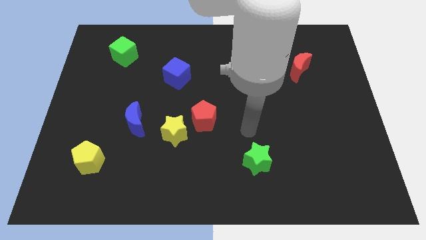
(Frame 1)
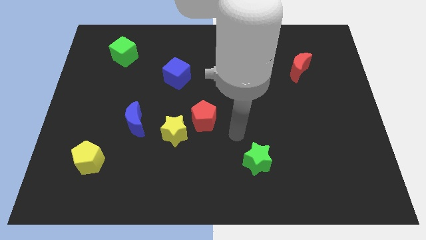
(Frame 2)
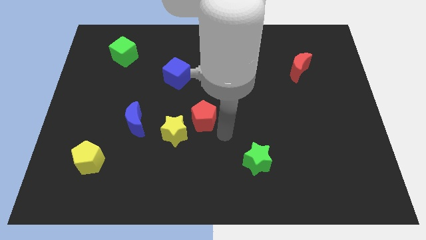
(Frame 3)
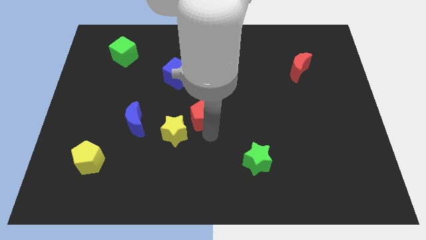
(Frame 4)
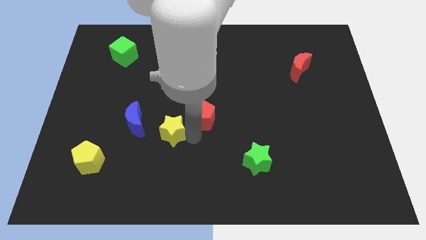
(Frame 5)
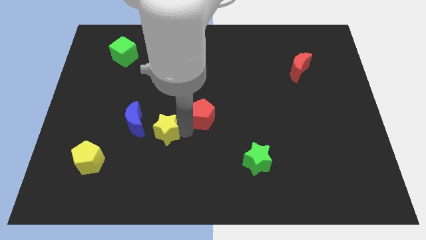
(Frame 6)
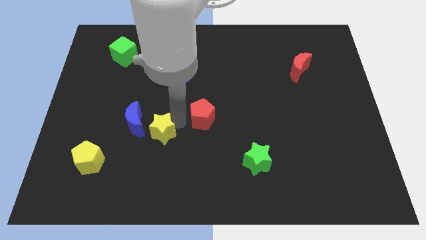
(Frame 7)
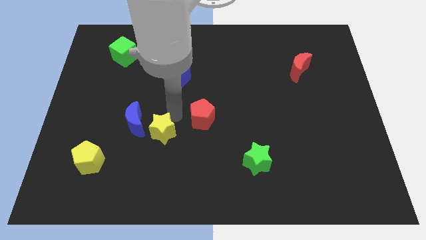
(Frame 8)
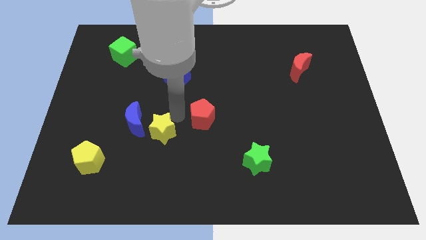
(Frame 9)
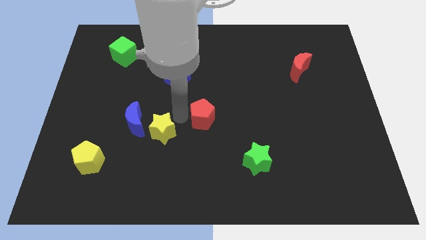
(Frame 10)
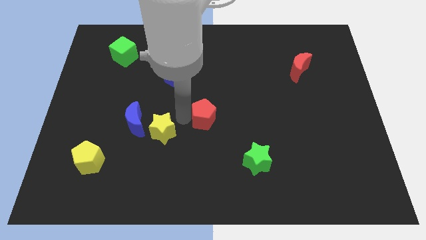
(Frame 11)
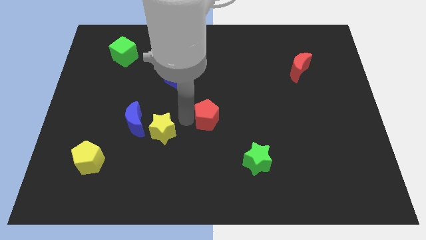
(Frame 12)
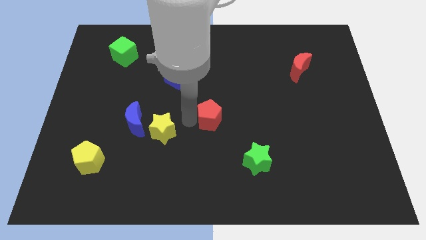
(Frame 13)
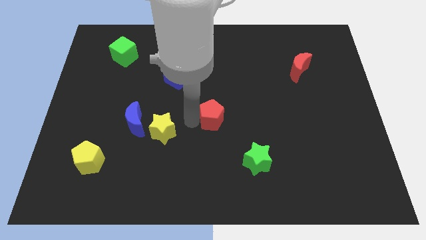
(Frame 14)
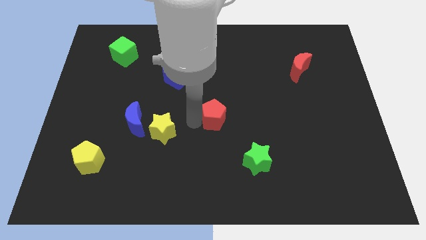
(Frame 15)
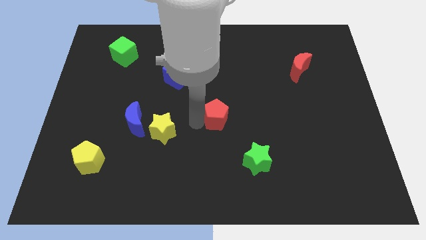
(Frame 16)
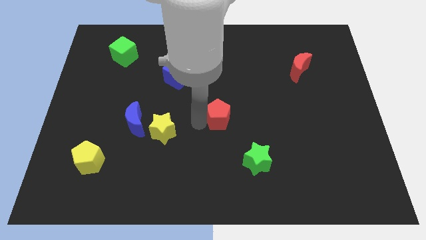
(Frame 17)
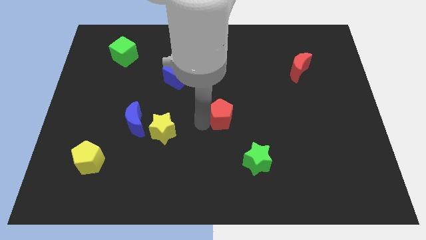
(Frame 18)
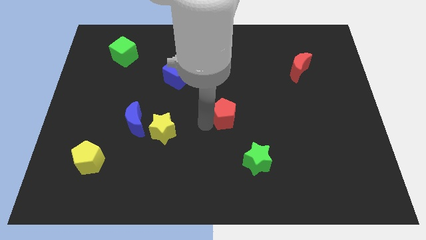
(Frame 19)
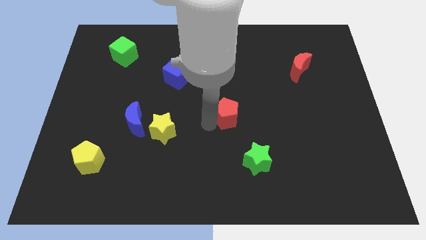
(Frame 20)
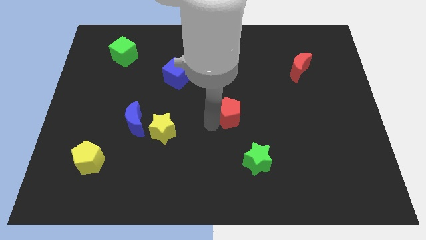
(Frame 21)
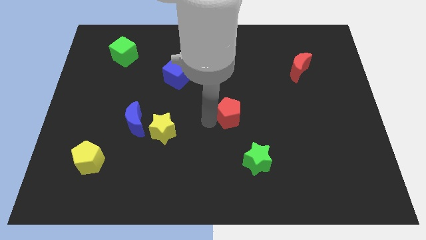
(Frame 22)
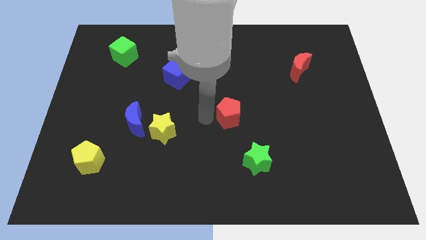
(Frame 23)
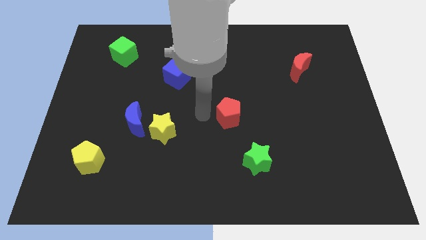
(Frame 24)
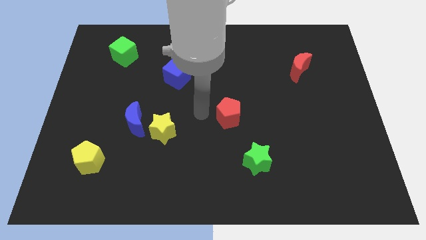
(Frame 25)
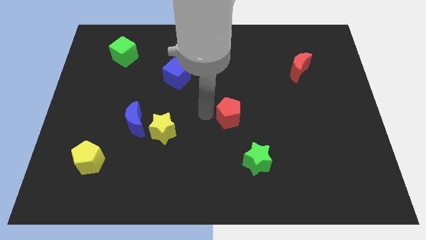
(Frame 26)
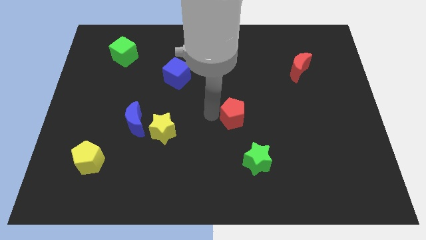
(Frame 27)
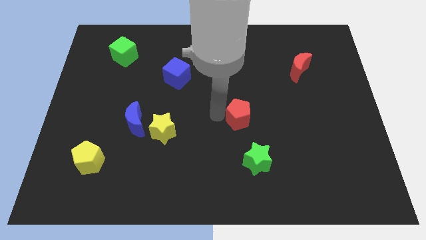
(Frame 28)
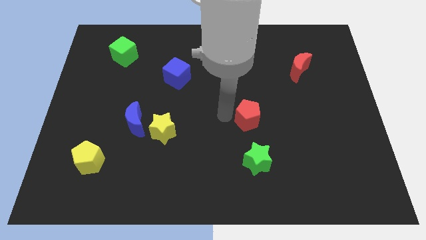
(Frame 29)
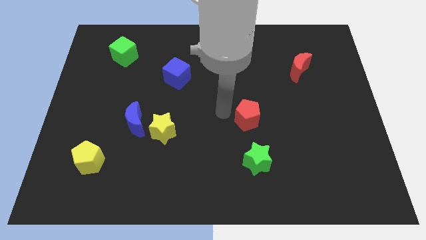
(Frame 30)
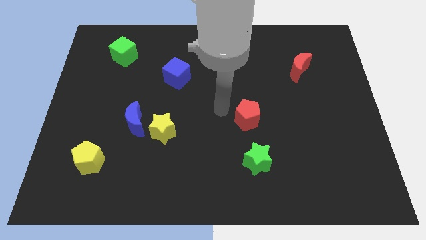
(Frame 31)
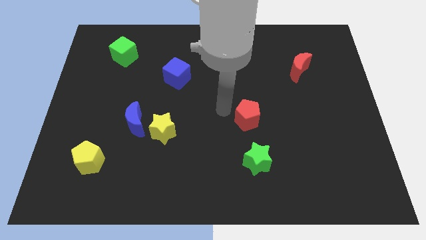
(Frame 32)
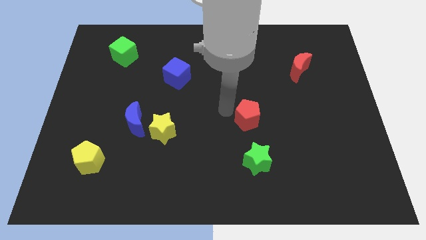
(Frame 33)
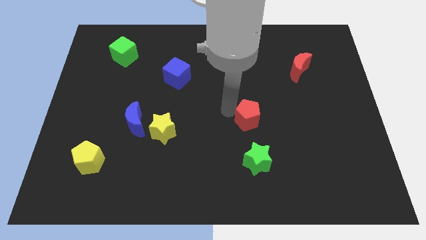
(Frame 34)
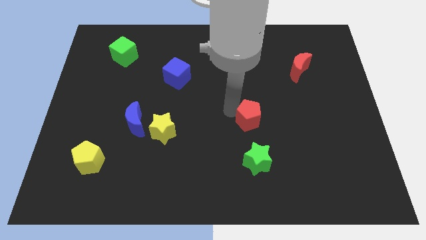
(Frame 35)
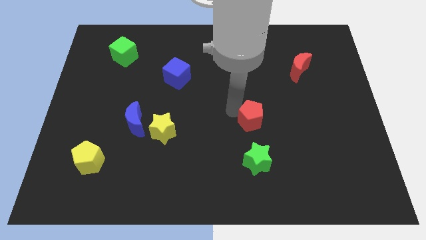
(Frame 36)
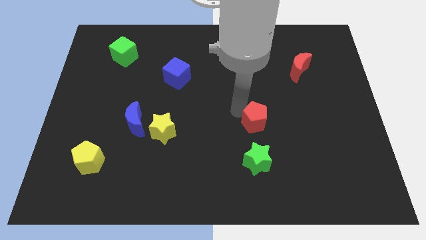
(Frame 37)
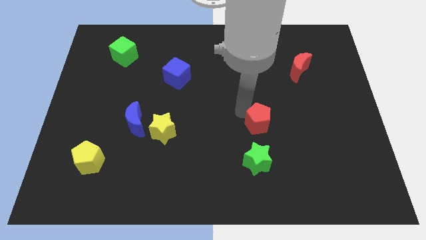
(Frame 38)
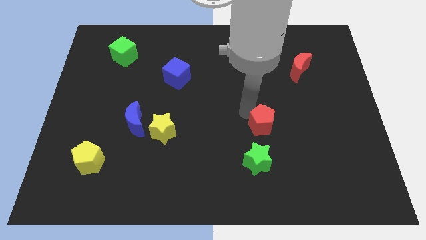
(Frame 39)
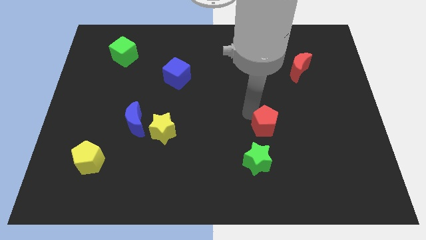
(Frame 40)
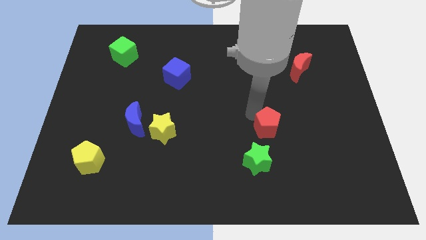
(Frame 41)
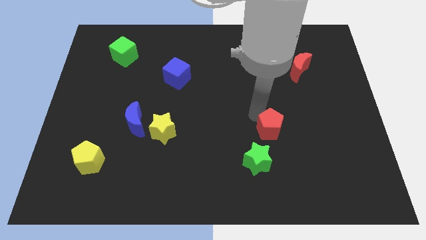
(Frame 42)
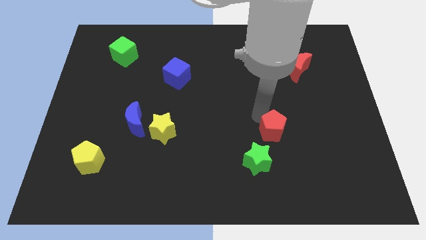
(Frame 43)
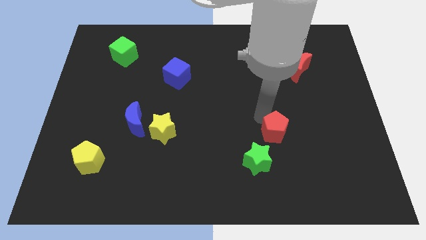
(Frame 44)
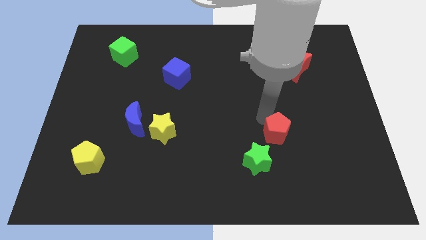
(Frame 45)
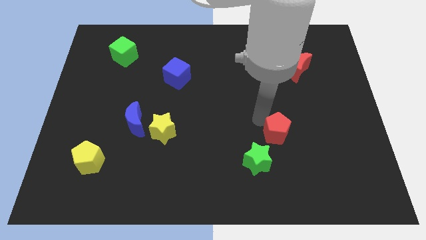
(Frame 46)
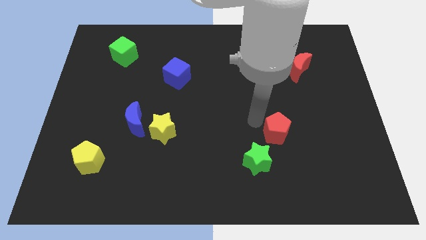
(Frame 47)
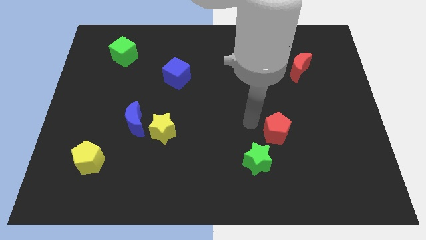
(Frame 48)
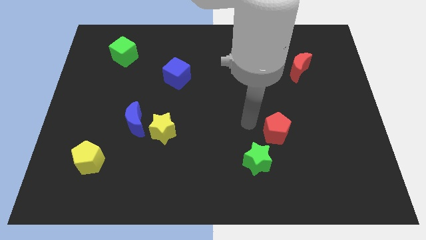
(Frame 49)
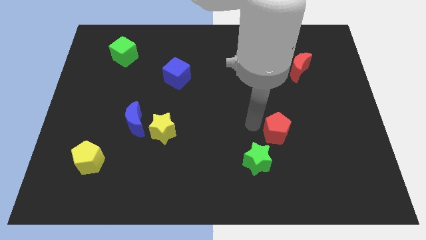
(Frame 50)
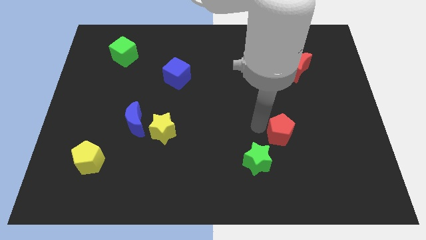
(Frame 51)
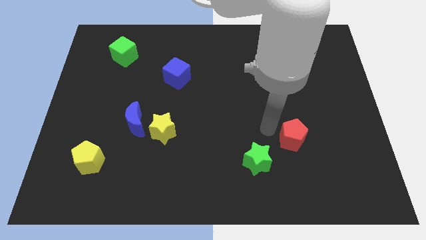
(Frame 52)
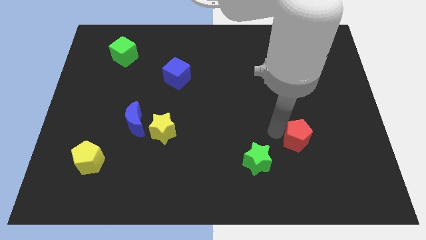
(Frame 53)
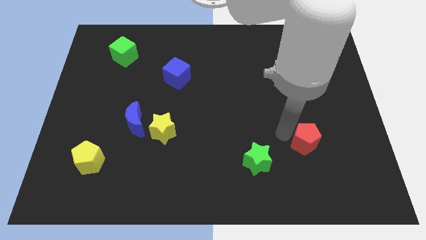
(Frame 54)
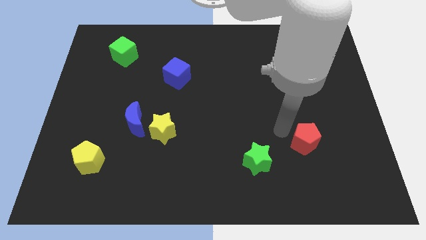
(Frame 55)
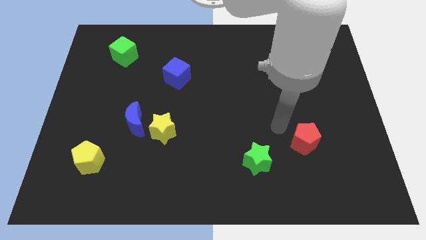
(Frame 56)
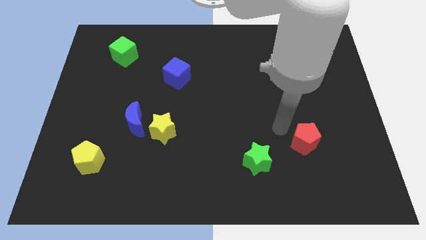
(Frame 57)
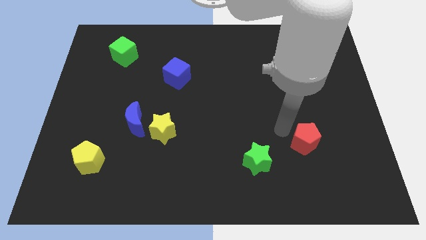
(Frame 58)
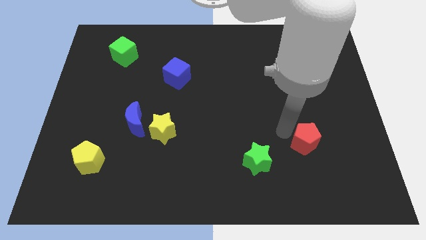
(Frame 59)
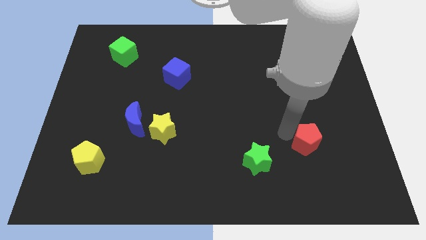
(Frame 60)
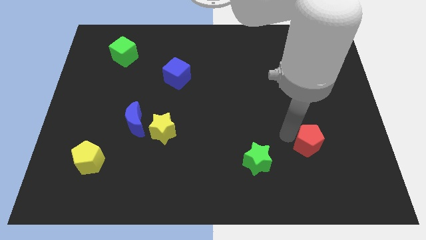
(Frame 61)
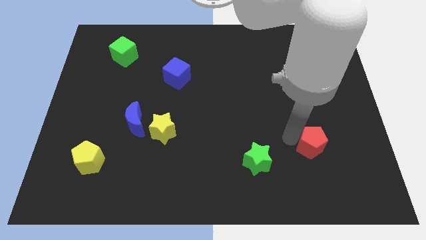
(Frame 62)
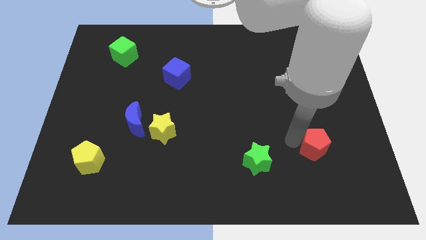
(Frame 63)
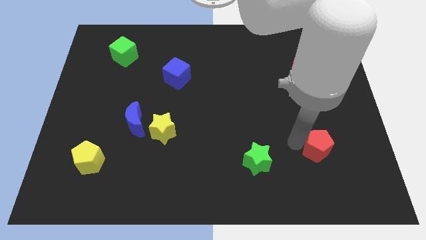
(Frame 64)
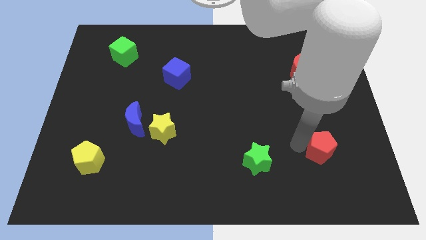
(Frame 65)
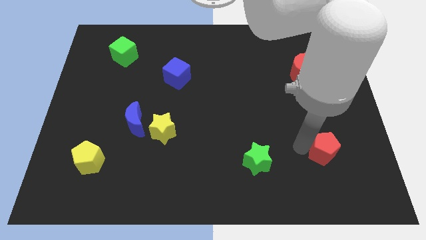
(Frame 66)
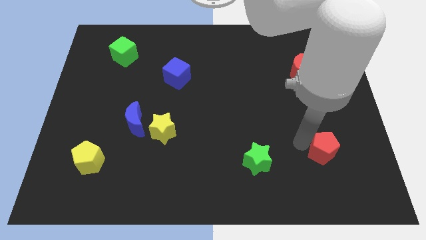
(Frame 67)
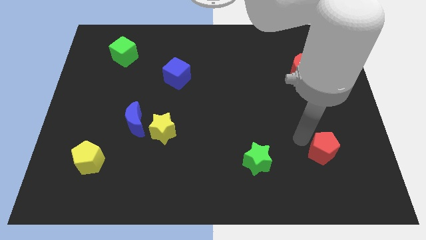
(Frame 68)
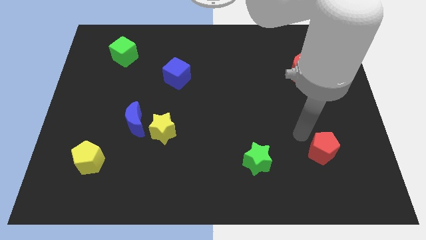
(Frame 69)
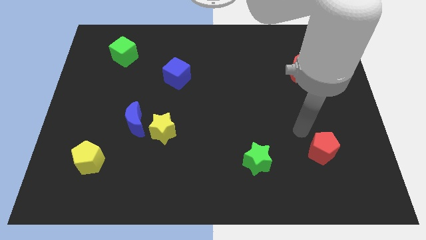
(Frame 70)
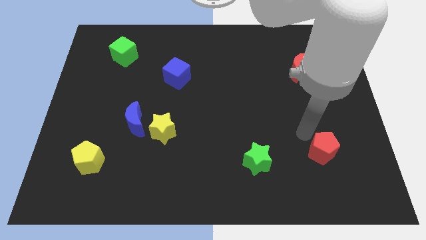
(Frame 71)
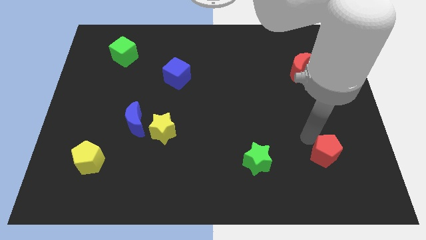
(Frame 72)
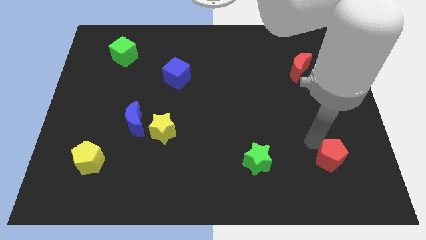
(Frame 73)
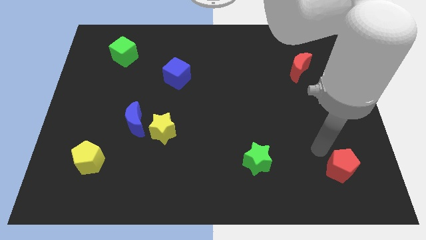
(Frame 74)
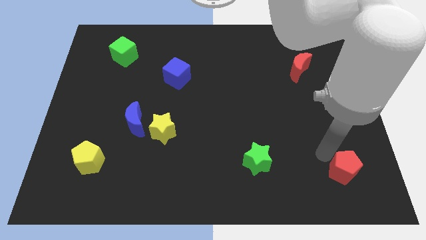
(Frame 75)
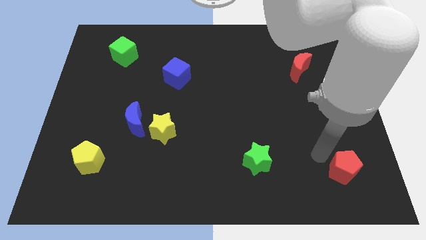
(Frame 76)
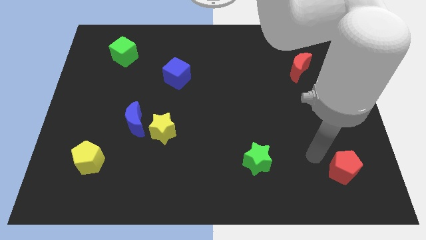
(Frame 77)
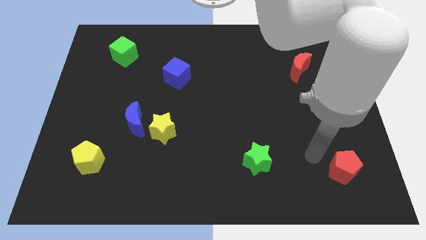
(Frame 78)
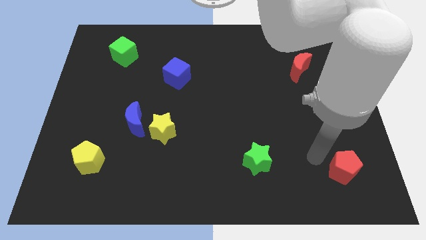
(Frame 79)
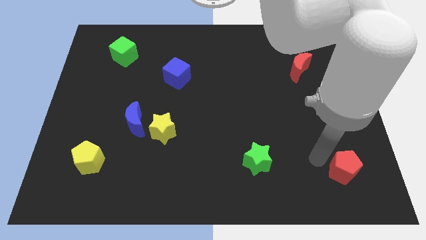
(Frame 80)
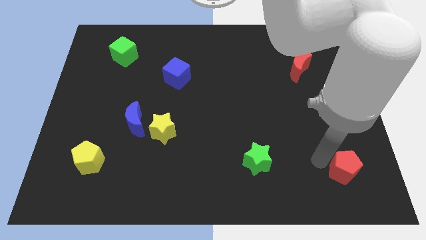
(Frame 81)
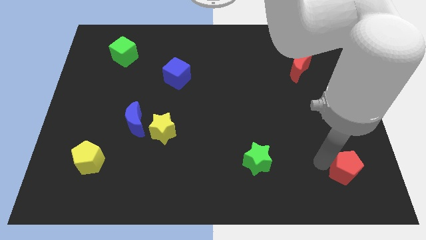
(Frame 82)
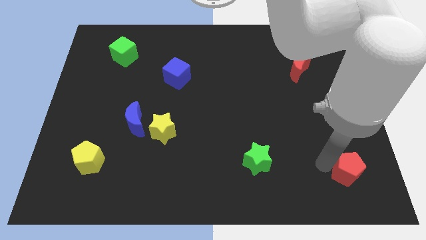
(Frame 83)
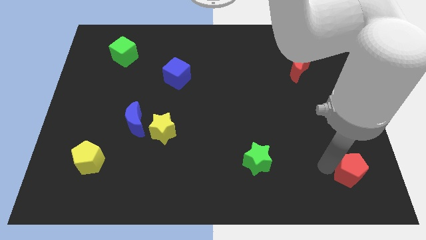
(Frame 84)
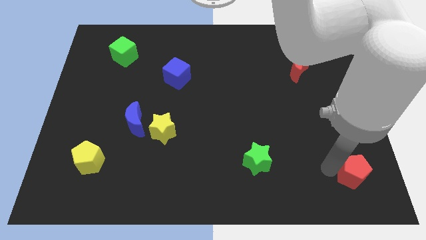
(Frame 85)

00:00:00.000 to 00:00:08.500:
move the red pentagon to the bottom right
